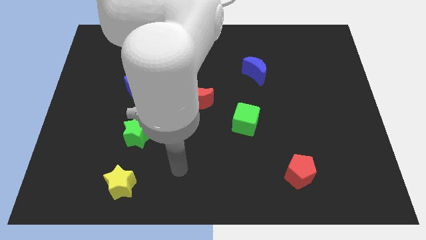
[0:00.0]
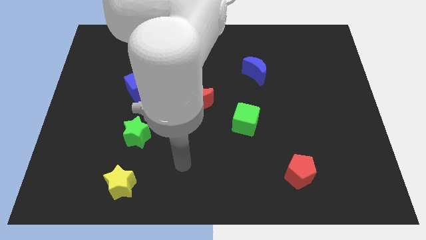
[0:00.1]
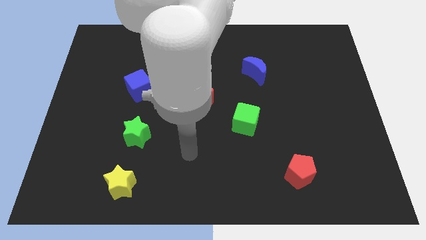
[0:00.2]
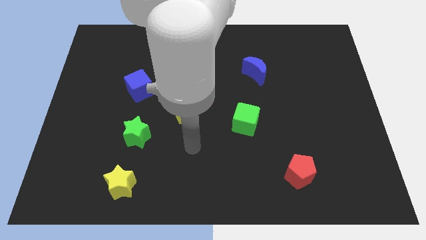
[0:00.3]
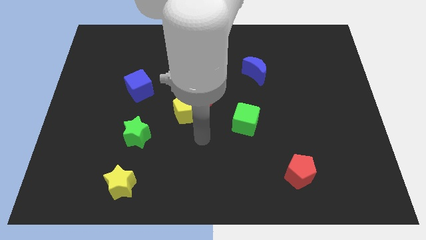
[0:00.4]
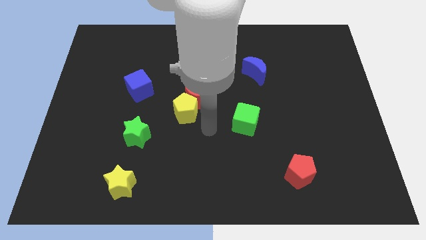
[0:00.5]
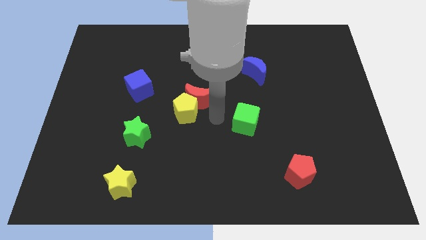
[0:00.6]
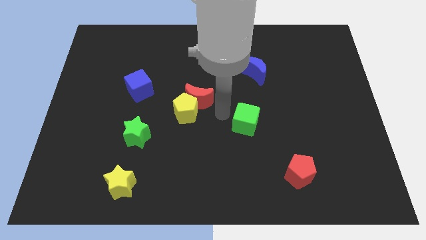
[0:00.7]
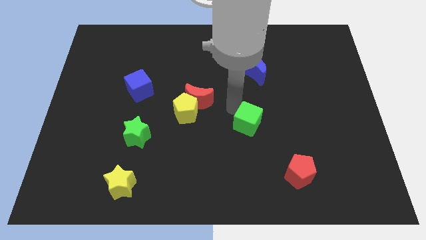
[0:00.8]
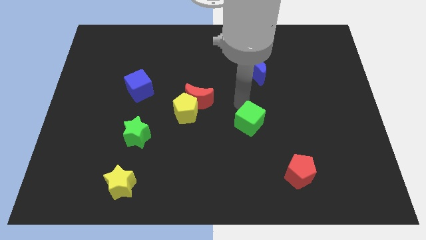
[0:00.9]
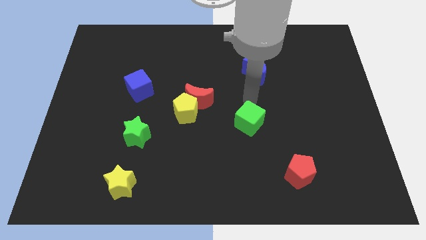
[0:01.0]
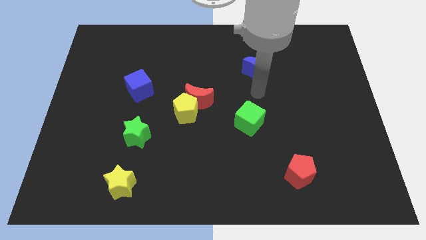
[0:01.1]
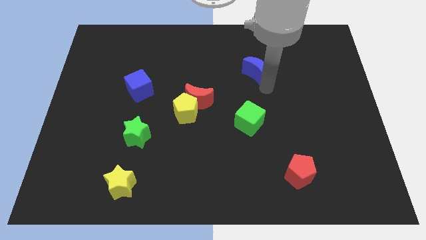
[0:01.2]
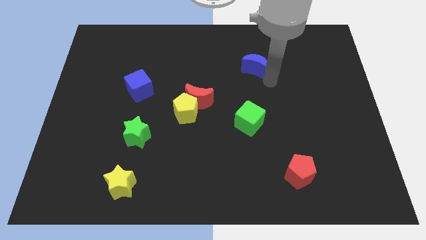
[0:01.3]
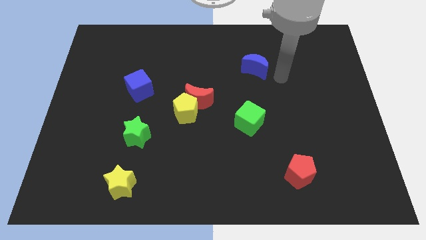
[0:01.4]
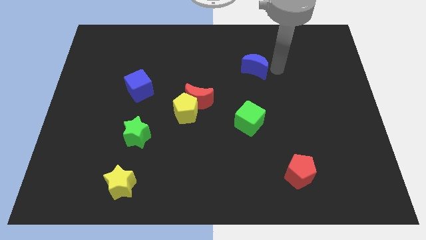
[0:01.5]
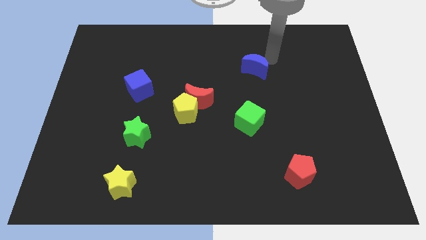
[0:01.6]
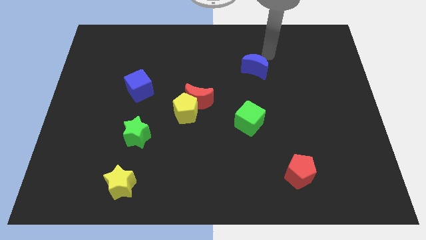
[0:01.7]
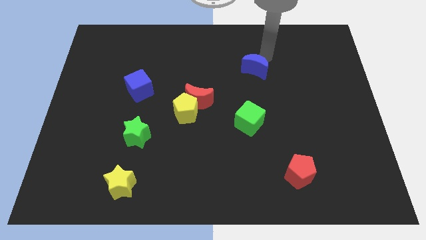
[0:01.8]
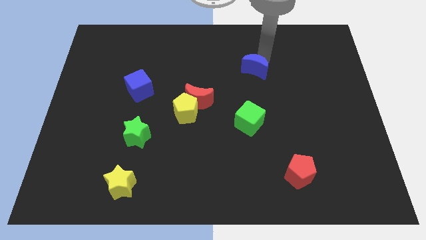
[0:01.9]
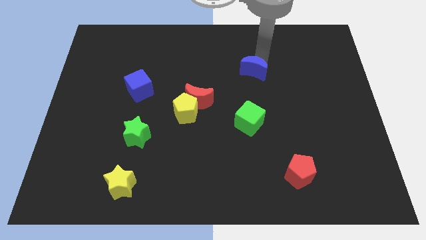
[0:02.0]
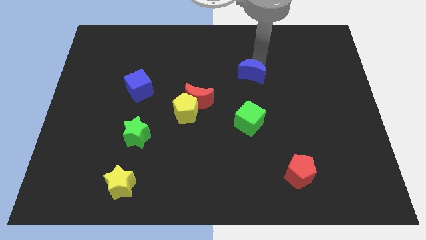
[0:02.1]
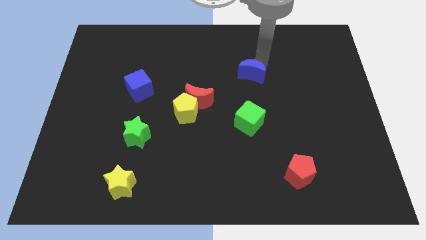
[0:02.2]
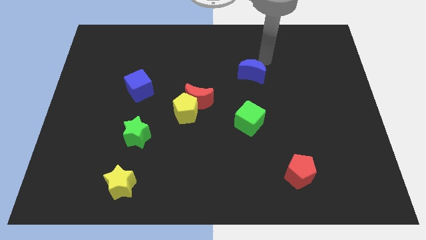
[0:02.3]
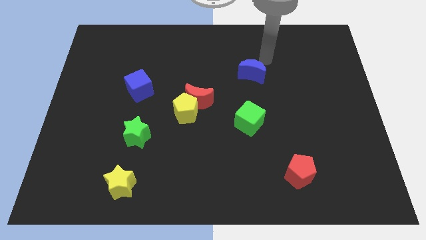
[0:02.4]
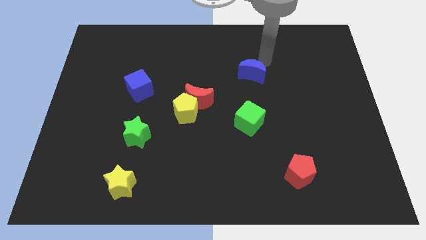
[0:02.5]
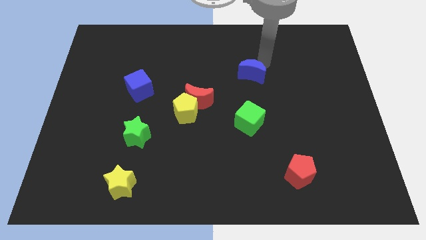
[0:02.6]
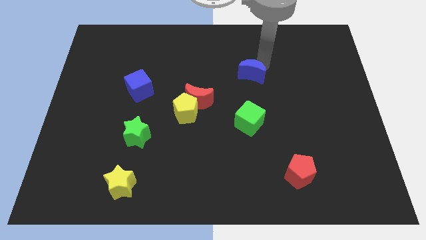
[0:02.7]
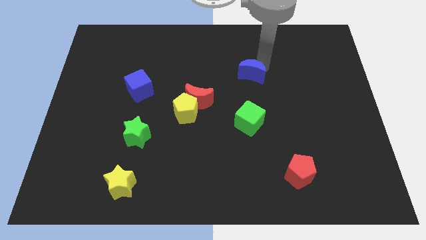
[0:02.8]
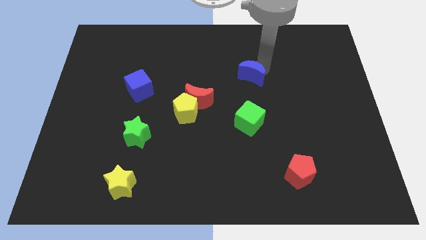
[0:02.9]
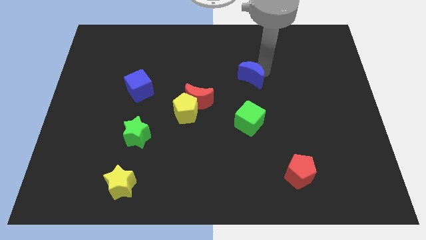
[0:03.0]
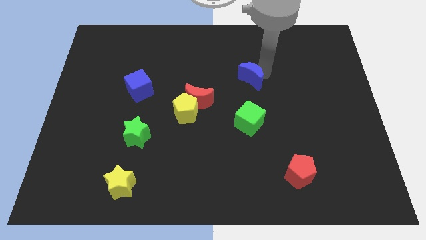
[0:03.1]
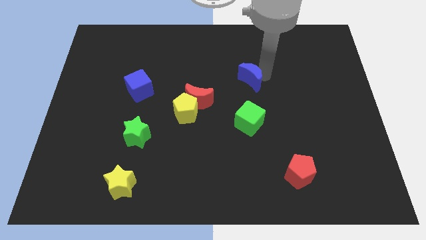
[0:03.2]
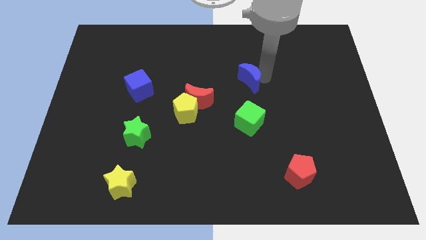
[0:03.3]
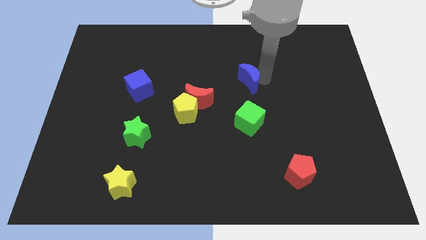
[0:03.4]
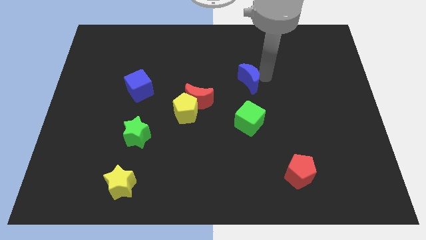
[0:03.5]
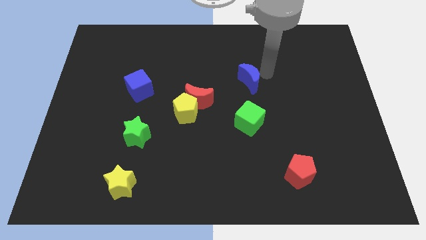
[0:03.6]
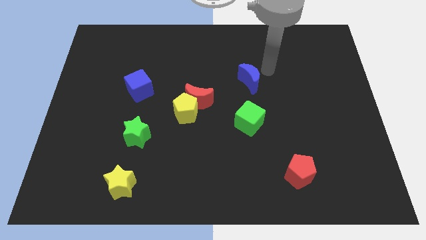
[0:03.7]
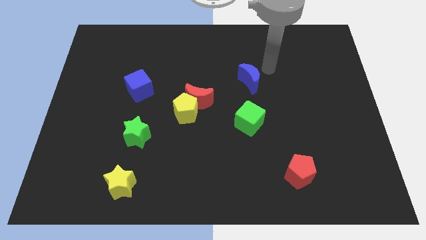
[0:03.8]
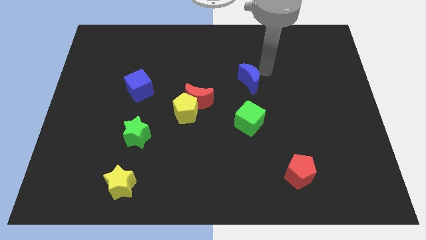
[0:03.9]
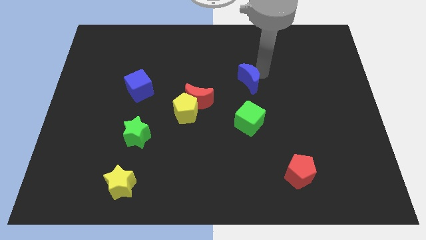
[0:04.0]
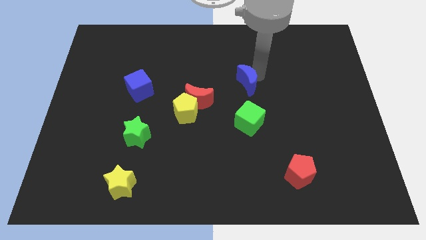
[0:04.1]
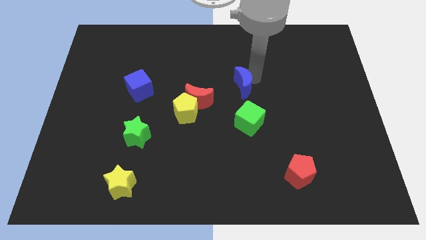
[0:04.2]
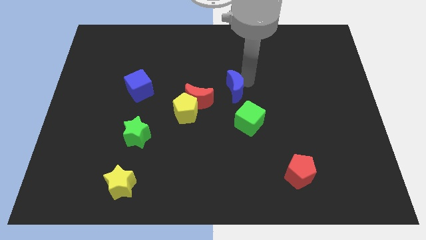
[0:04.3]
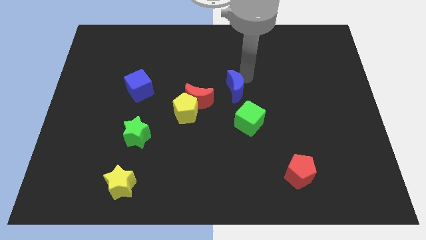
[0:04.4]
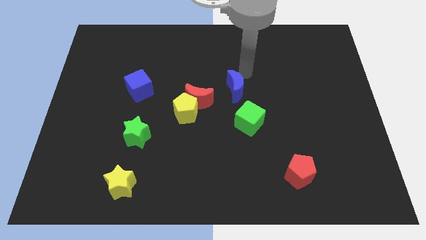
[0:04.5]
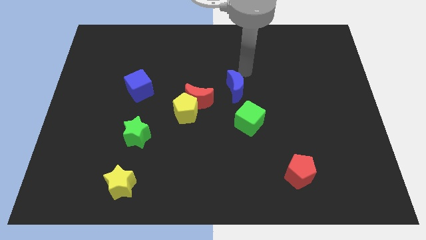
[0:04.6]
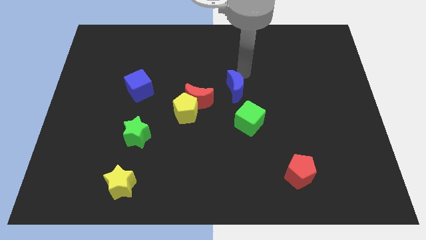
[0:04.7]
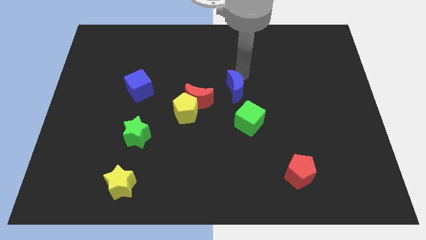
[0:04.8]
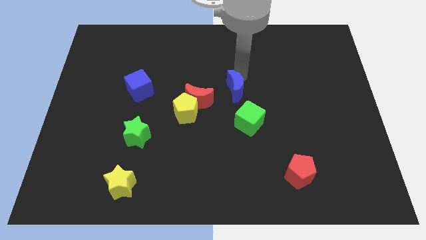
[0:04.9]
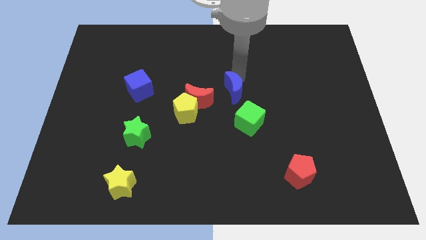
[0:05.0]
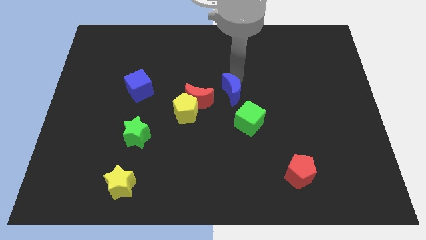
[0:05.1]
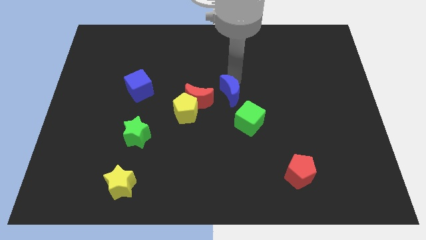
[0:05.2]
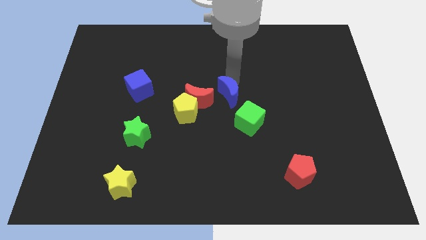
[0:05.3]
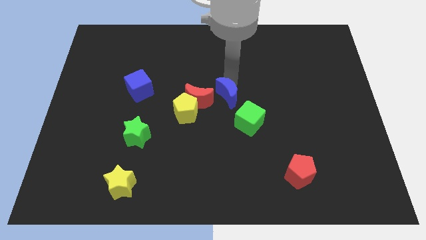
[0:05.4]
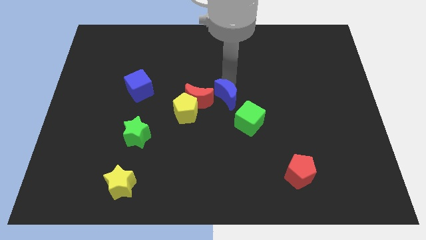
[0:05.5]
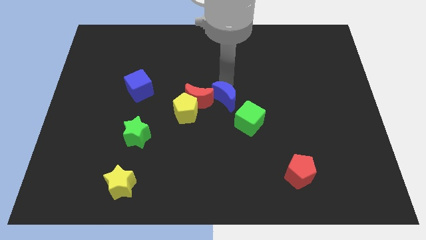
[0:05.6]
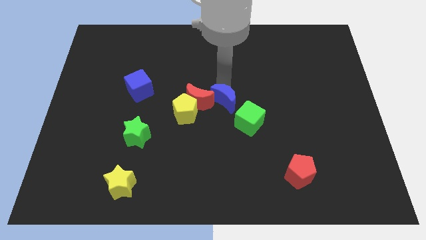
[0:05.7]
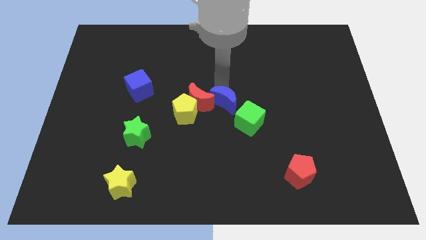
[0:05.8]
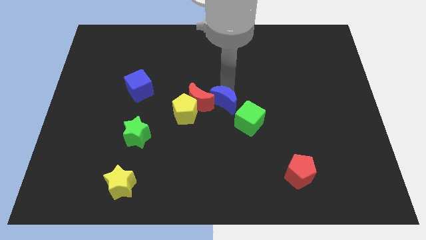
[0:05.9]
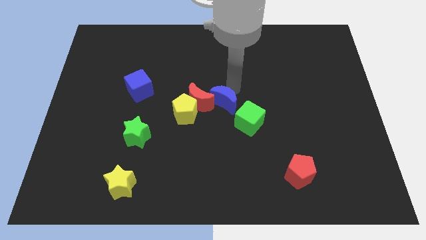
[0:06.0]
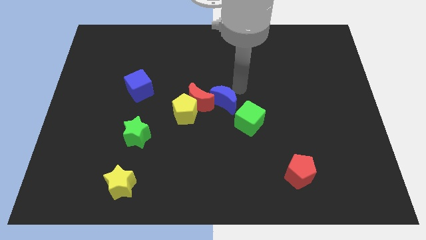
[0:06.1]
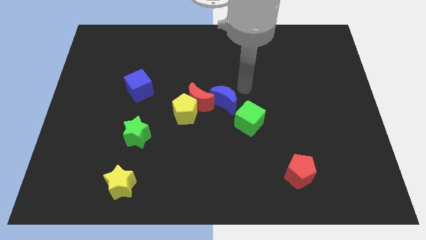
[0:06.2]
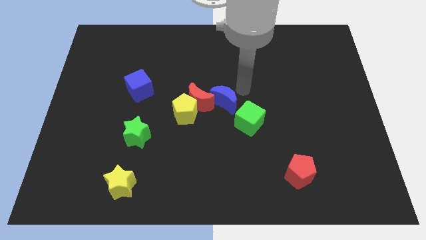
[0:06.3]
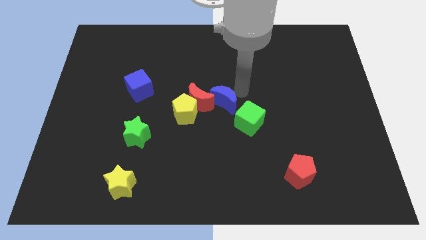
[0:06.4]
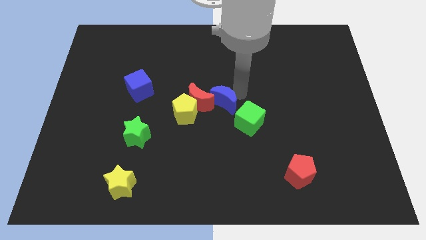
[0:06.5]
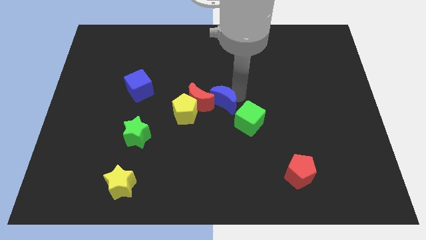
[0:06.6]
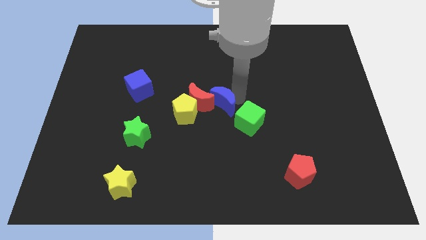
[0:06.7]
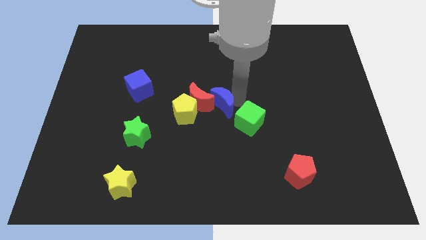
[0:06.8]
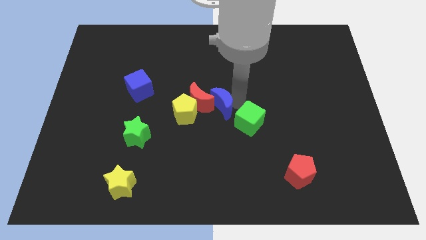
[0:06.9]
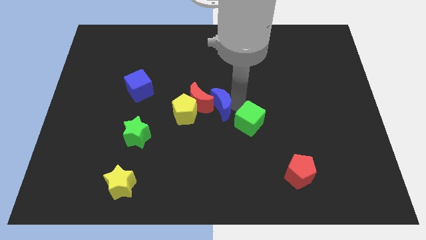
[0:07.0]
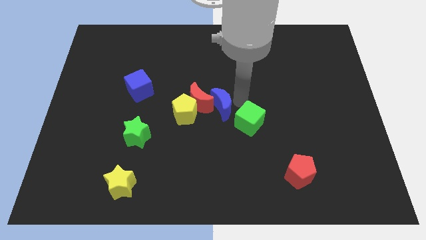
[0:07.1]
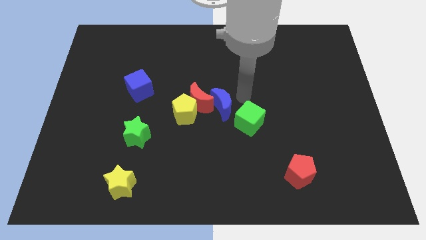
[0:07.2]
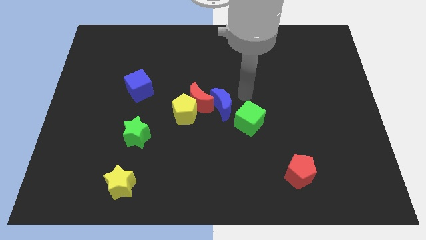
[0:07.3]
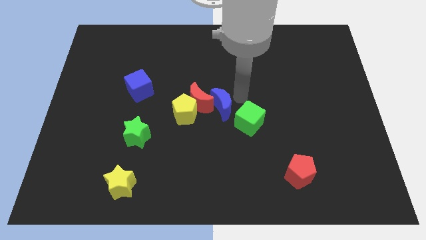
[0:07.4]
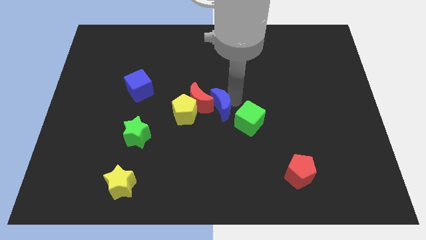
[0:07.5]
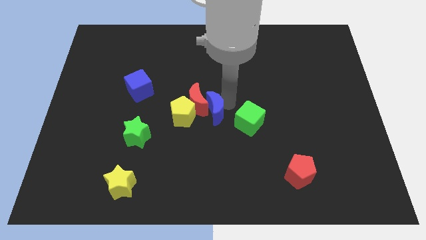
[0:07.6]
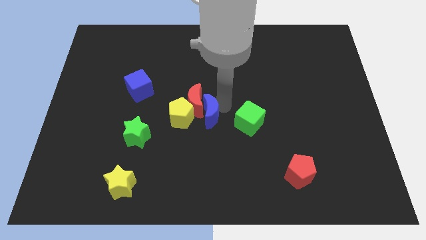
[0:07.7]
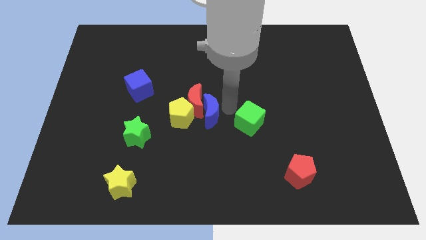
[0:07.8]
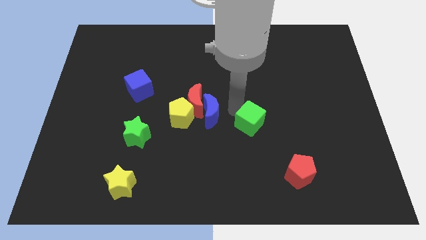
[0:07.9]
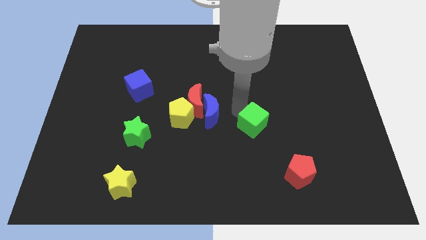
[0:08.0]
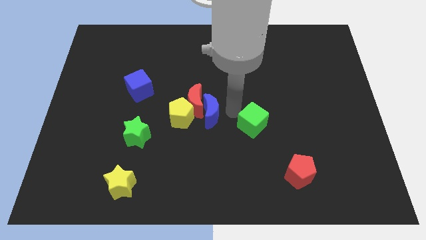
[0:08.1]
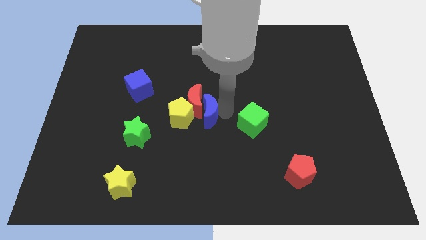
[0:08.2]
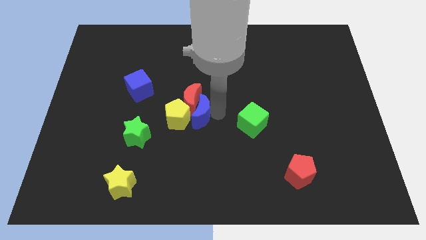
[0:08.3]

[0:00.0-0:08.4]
push the blue moon towards the yellow pentagon
